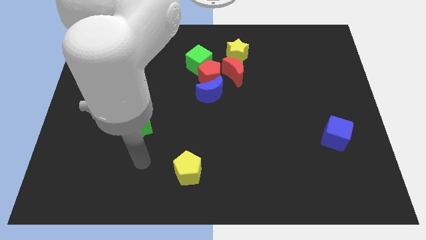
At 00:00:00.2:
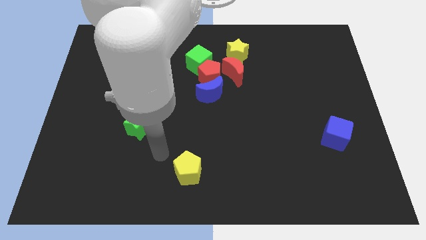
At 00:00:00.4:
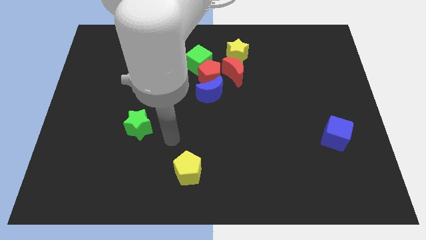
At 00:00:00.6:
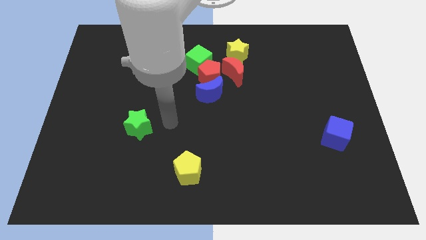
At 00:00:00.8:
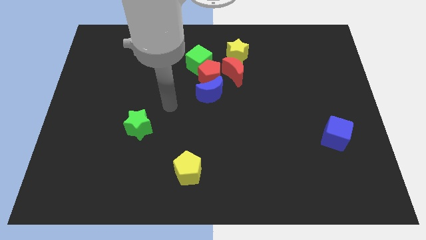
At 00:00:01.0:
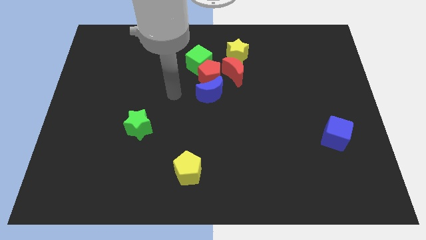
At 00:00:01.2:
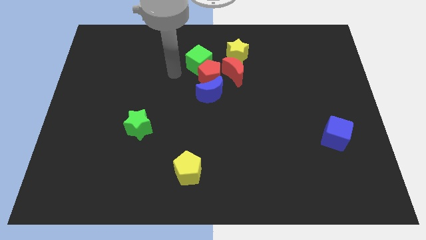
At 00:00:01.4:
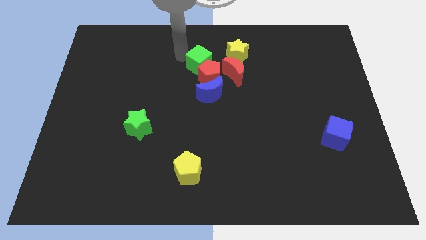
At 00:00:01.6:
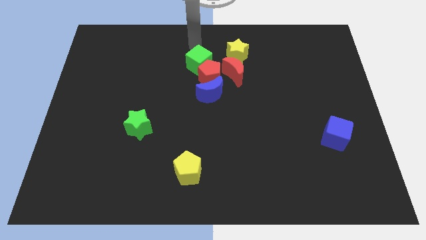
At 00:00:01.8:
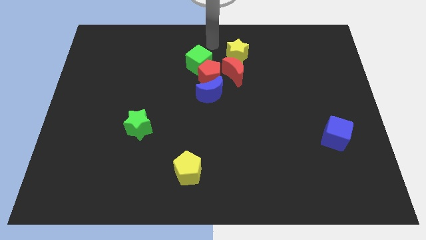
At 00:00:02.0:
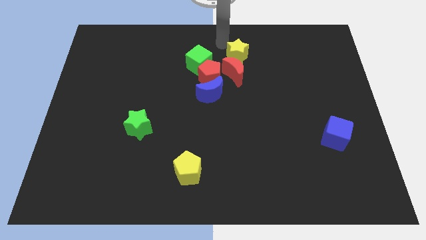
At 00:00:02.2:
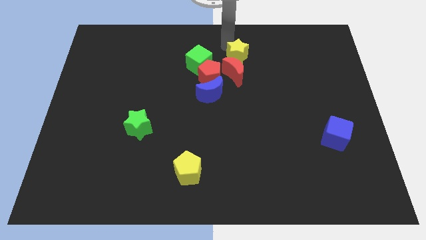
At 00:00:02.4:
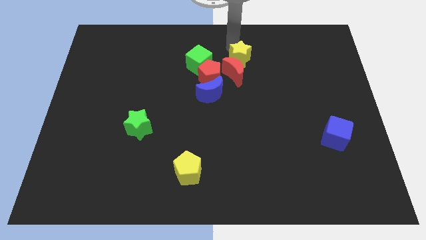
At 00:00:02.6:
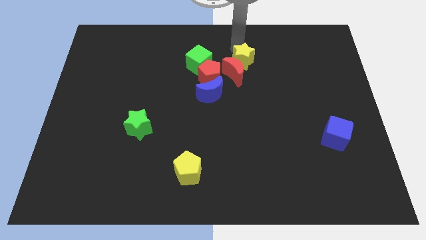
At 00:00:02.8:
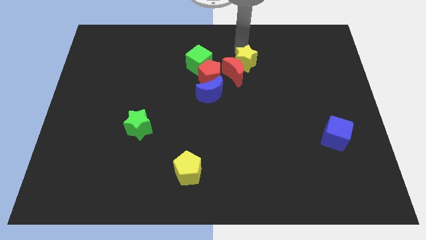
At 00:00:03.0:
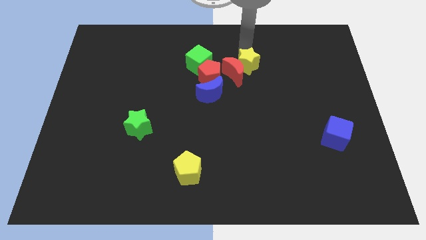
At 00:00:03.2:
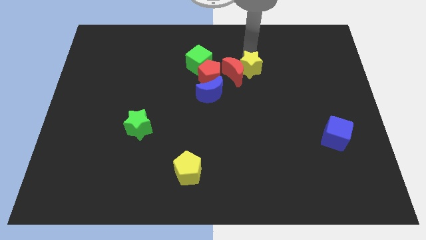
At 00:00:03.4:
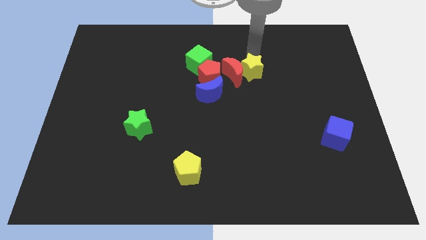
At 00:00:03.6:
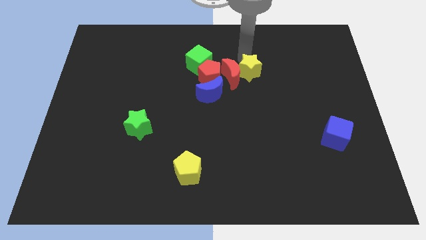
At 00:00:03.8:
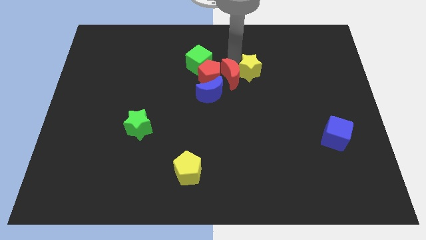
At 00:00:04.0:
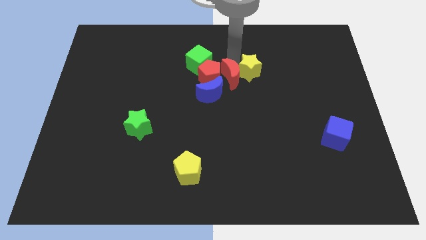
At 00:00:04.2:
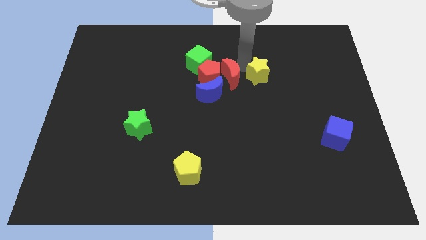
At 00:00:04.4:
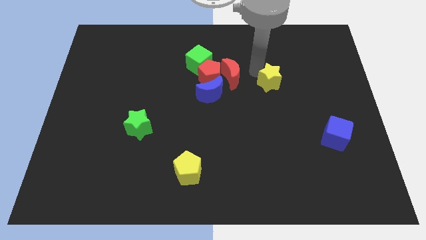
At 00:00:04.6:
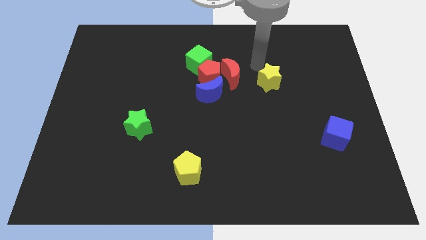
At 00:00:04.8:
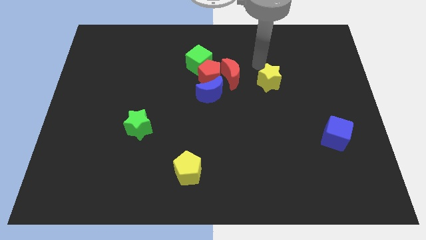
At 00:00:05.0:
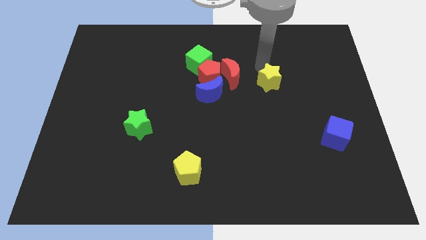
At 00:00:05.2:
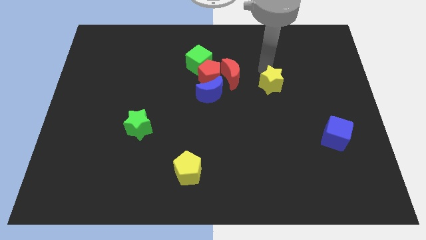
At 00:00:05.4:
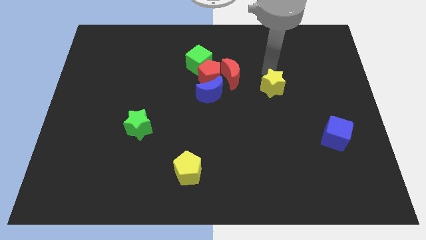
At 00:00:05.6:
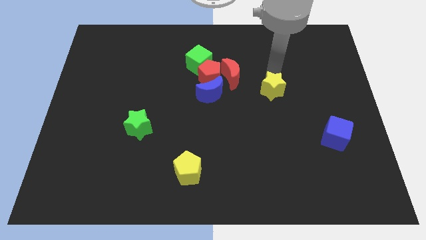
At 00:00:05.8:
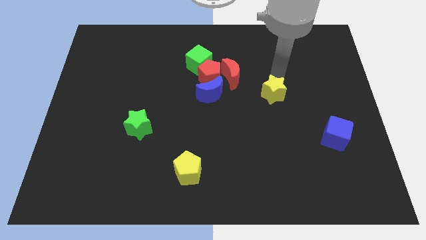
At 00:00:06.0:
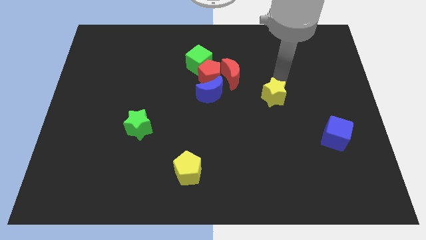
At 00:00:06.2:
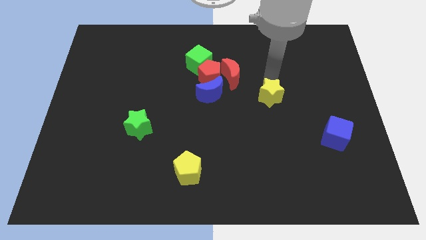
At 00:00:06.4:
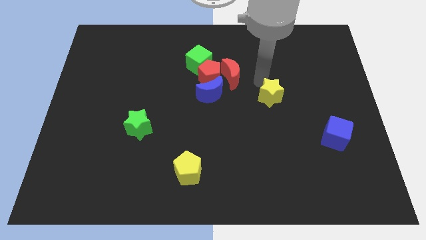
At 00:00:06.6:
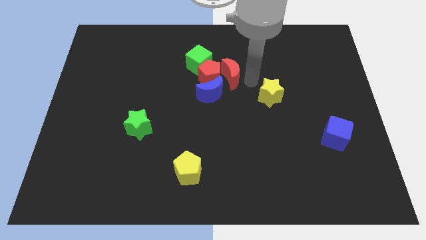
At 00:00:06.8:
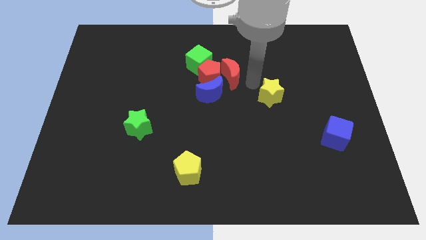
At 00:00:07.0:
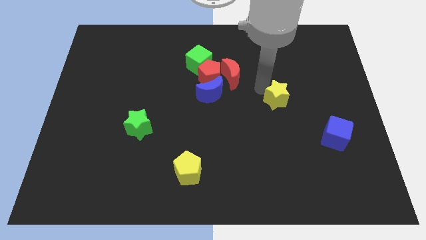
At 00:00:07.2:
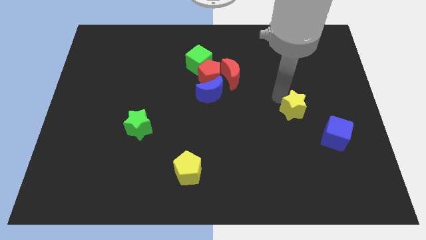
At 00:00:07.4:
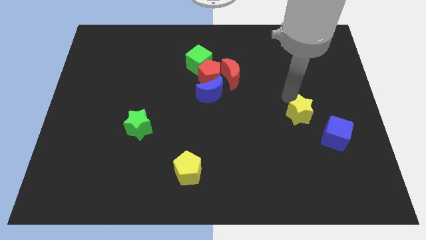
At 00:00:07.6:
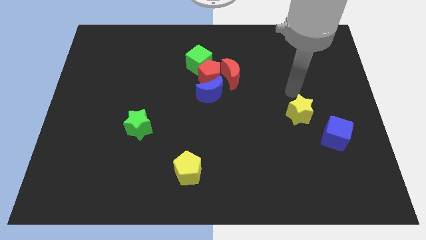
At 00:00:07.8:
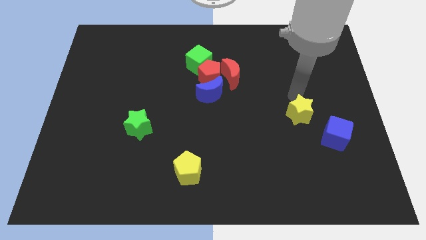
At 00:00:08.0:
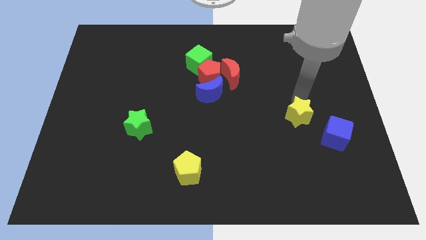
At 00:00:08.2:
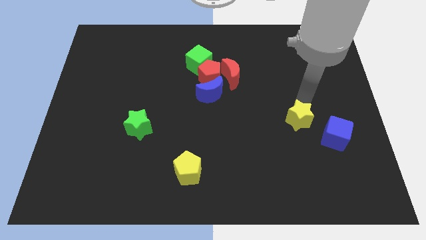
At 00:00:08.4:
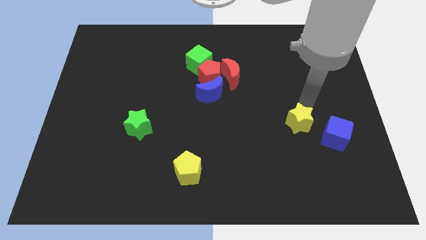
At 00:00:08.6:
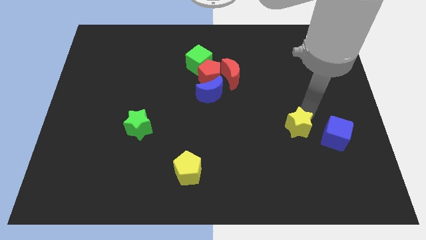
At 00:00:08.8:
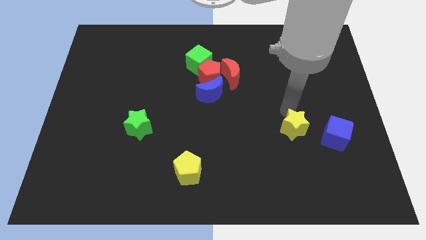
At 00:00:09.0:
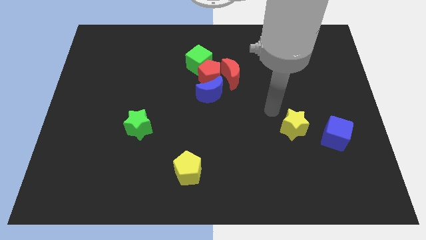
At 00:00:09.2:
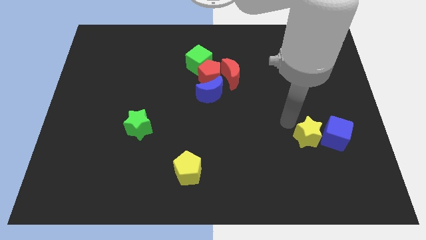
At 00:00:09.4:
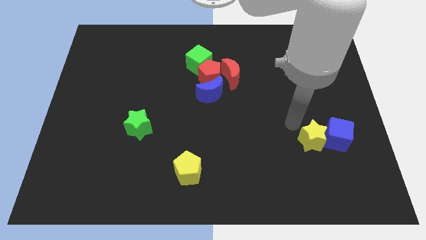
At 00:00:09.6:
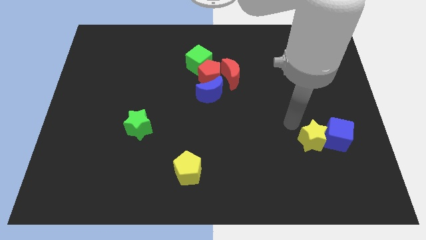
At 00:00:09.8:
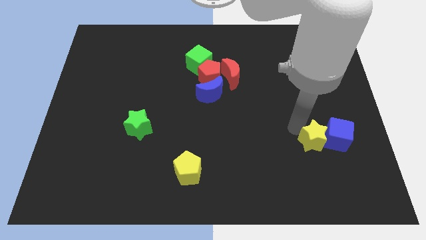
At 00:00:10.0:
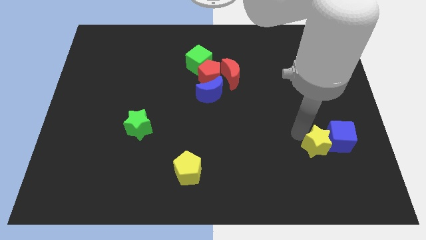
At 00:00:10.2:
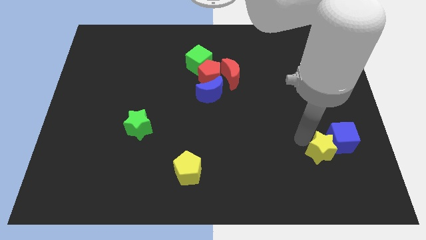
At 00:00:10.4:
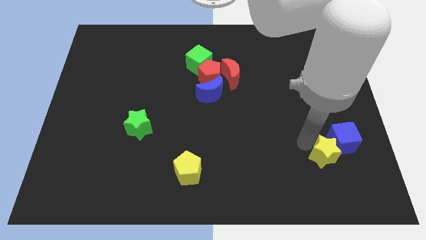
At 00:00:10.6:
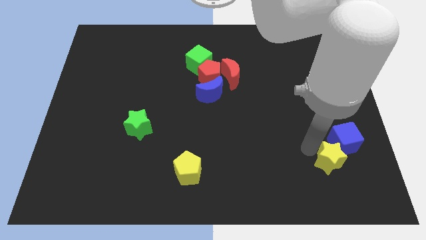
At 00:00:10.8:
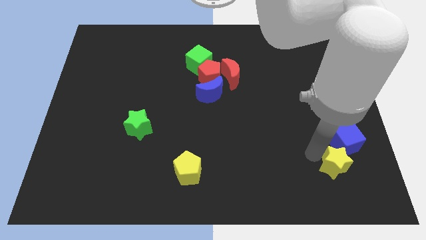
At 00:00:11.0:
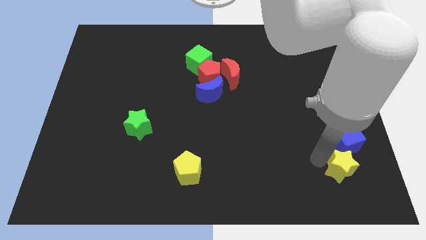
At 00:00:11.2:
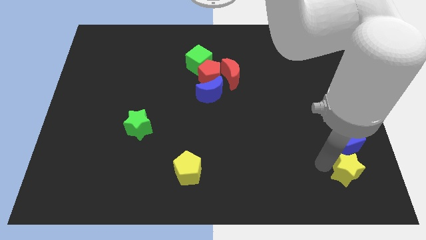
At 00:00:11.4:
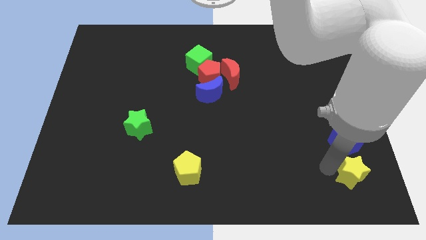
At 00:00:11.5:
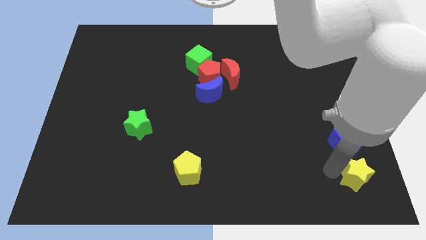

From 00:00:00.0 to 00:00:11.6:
put the yellow star to the lower right corner

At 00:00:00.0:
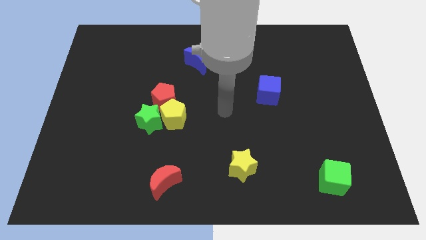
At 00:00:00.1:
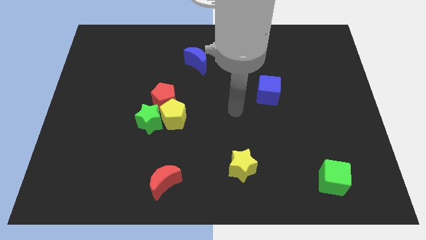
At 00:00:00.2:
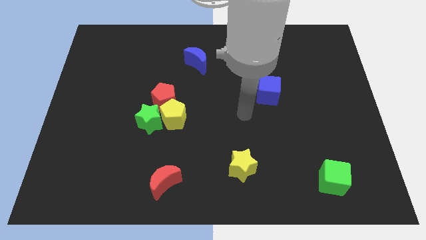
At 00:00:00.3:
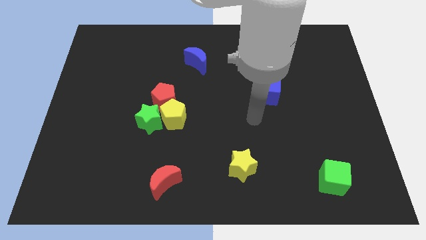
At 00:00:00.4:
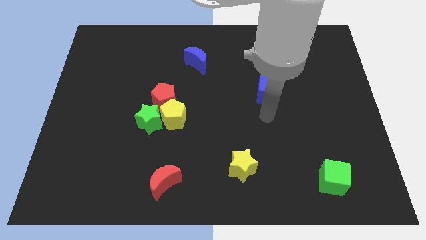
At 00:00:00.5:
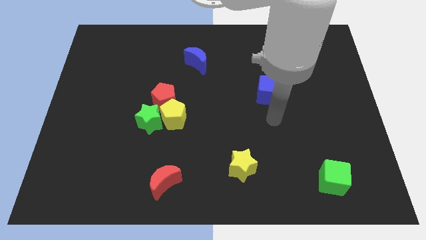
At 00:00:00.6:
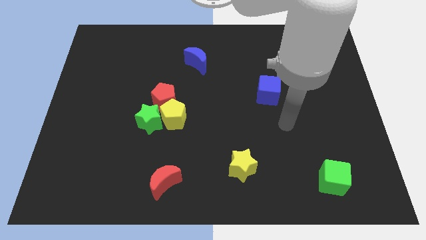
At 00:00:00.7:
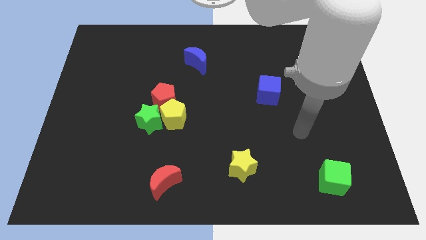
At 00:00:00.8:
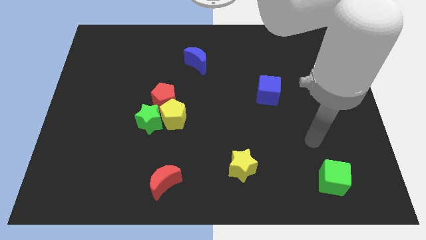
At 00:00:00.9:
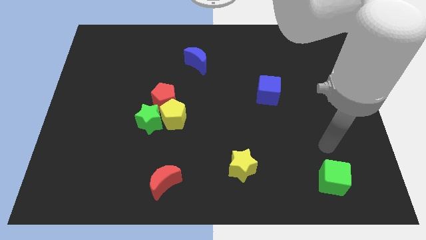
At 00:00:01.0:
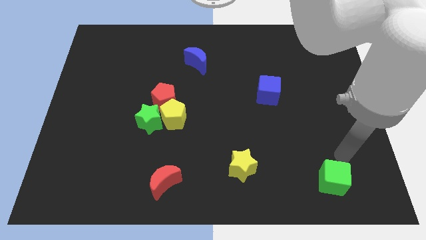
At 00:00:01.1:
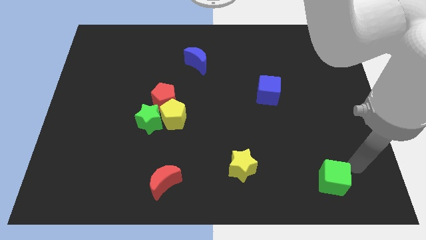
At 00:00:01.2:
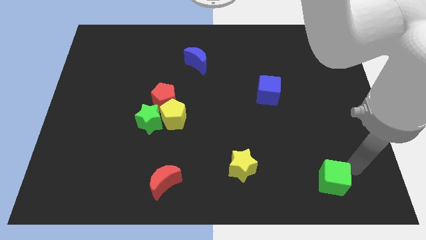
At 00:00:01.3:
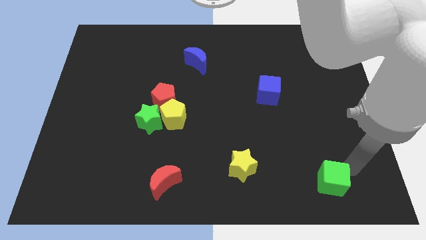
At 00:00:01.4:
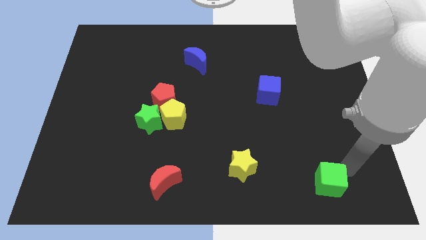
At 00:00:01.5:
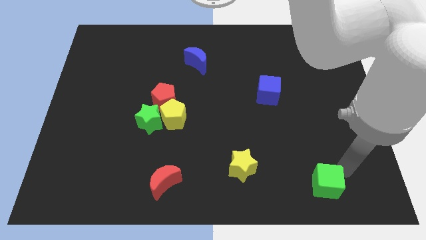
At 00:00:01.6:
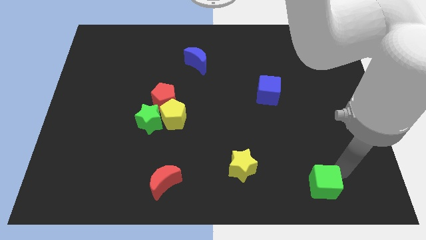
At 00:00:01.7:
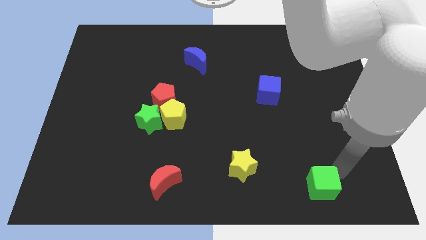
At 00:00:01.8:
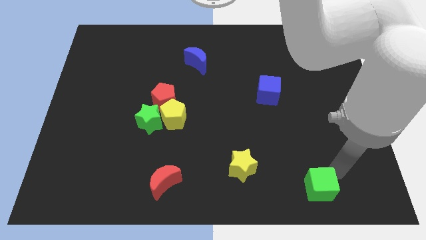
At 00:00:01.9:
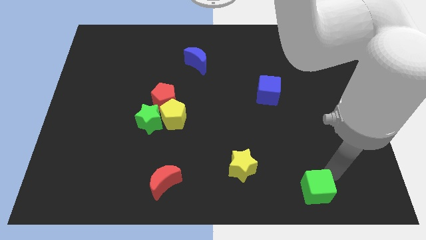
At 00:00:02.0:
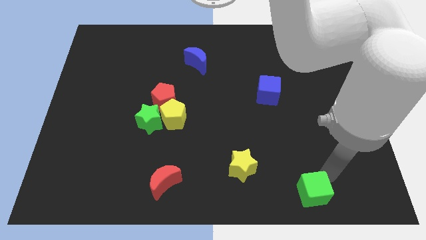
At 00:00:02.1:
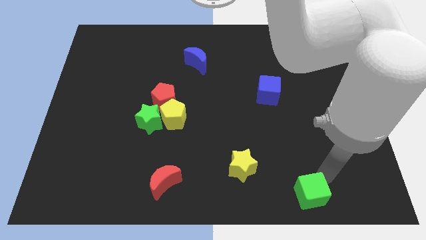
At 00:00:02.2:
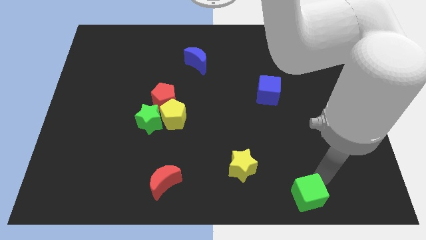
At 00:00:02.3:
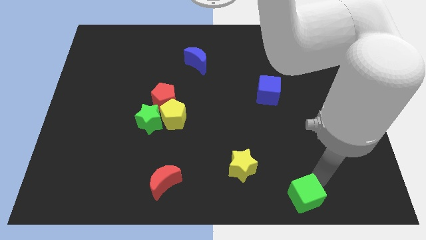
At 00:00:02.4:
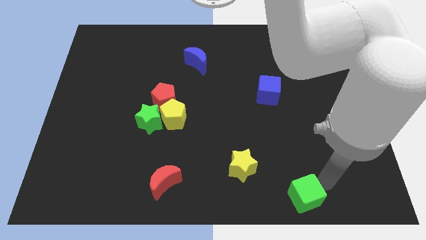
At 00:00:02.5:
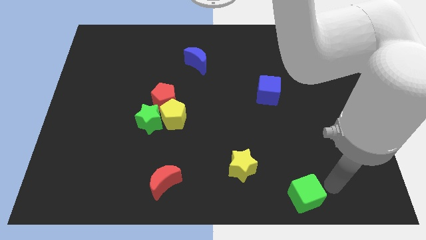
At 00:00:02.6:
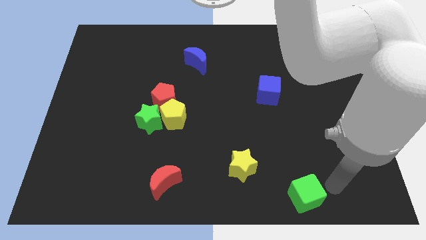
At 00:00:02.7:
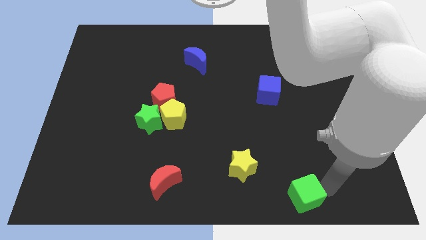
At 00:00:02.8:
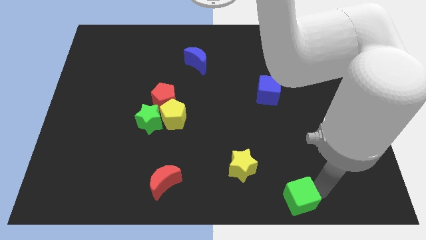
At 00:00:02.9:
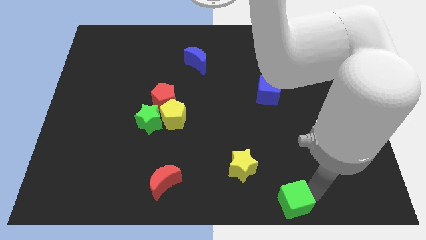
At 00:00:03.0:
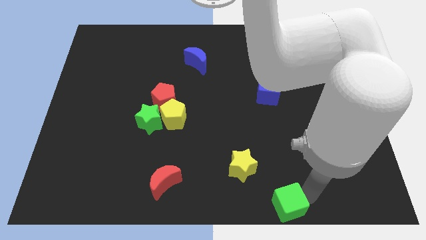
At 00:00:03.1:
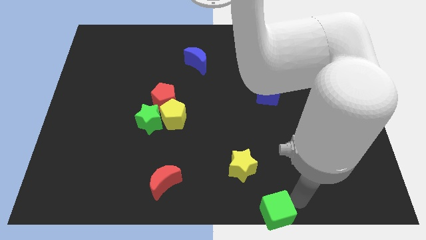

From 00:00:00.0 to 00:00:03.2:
push the green cube to the bottom
